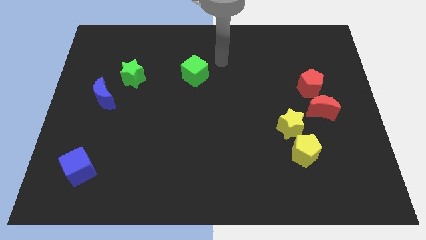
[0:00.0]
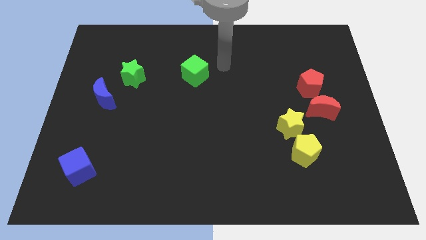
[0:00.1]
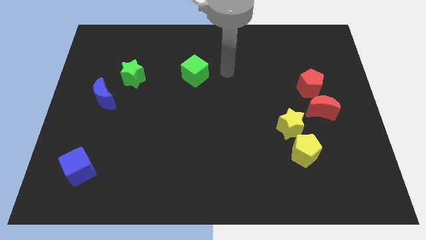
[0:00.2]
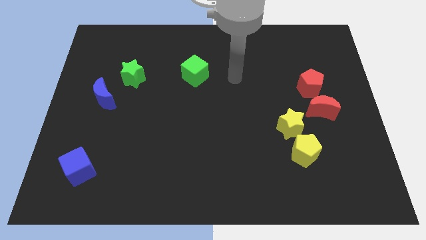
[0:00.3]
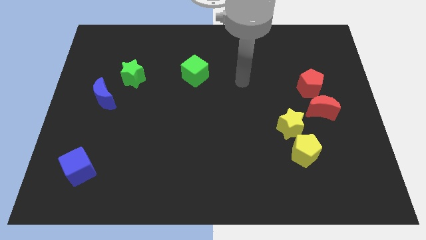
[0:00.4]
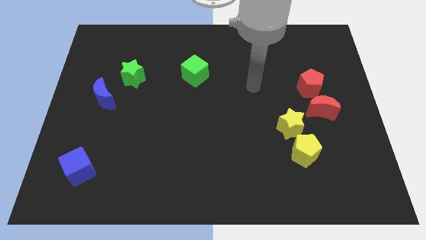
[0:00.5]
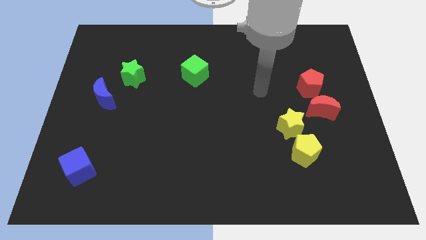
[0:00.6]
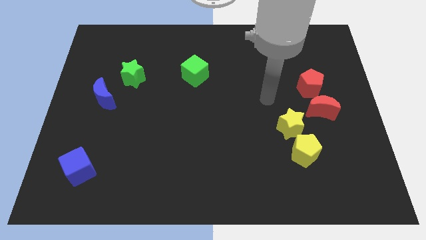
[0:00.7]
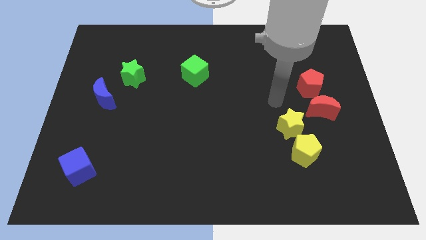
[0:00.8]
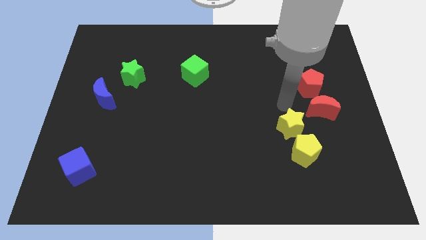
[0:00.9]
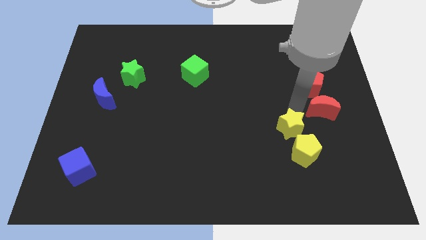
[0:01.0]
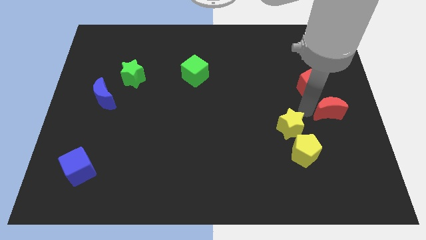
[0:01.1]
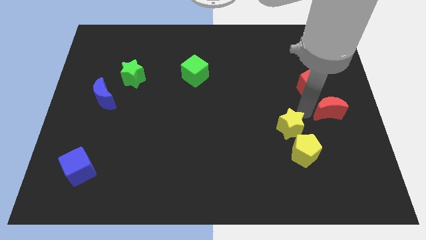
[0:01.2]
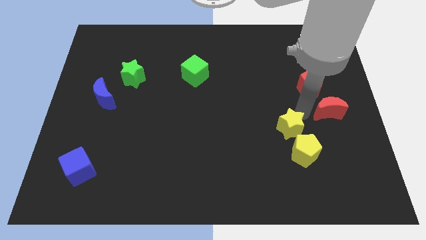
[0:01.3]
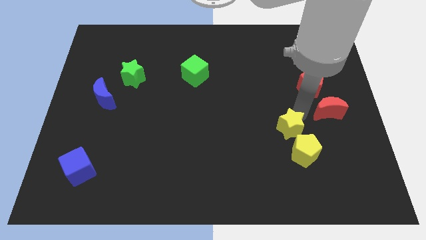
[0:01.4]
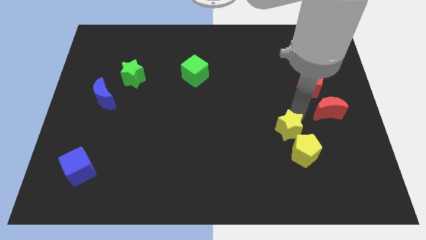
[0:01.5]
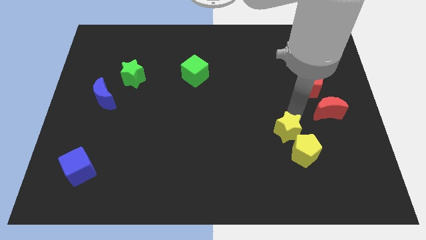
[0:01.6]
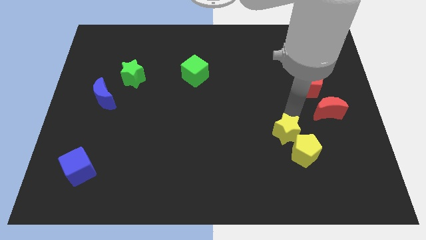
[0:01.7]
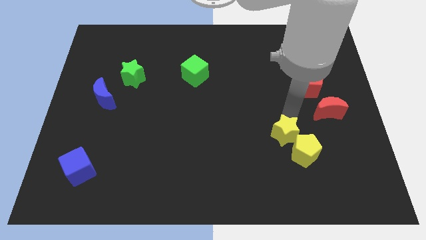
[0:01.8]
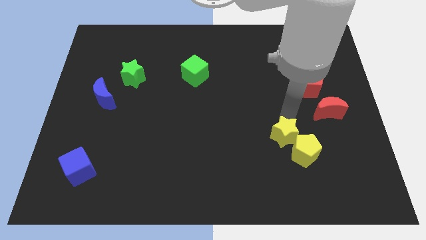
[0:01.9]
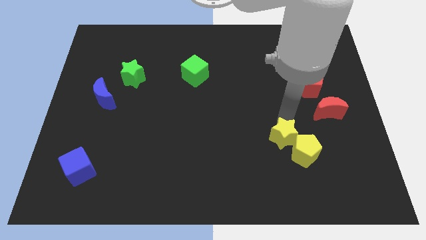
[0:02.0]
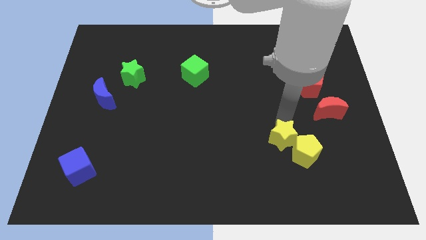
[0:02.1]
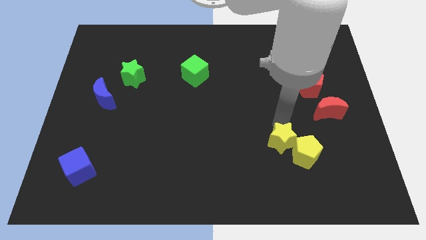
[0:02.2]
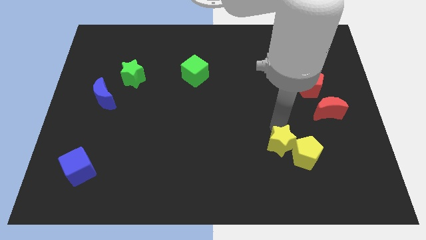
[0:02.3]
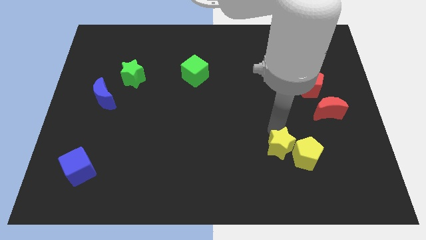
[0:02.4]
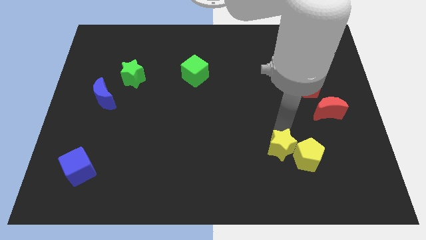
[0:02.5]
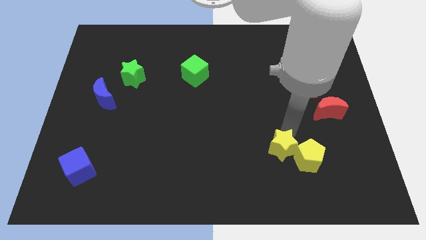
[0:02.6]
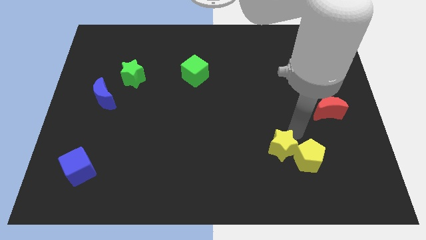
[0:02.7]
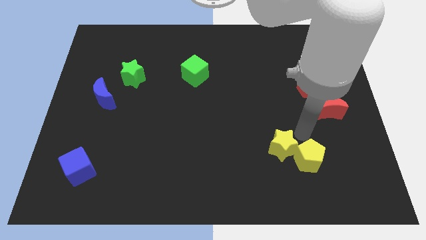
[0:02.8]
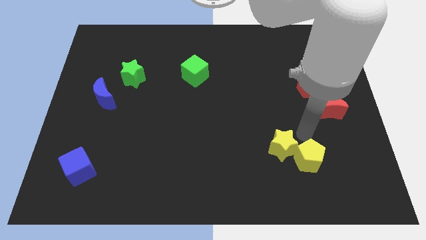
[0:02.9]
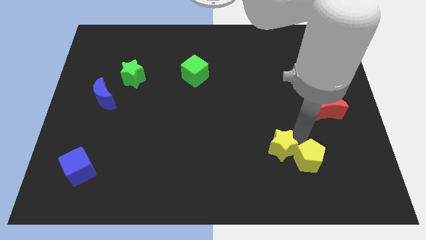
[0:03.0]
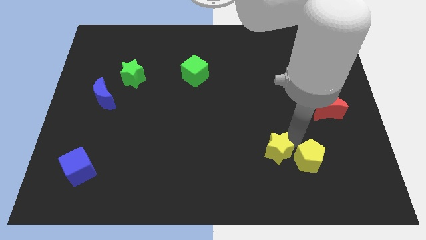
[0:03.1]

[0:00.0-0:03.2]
slide the yellow star down and left diagonally somewhat

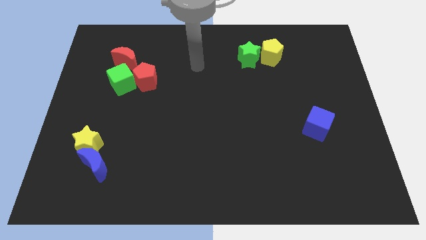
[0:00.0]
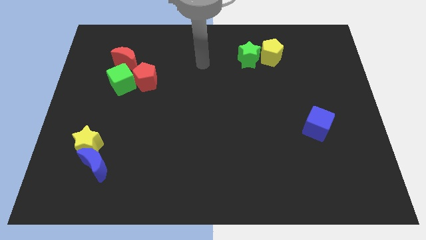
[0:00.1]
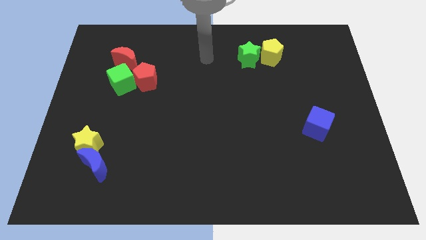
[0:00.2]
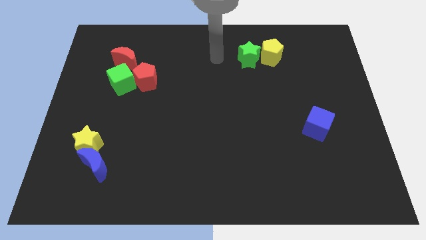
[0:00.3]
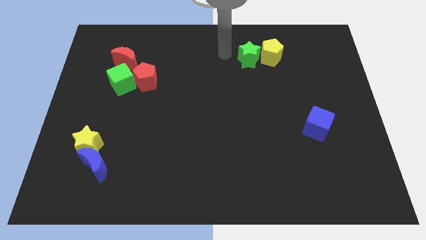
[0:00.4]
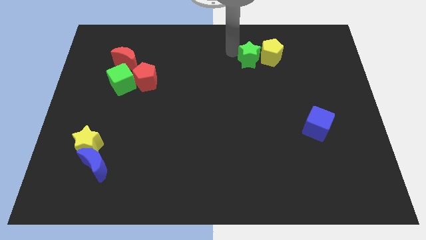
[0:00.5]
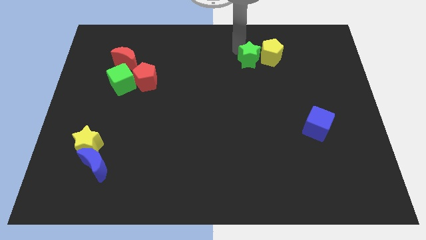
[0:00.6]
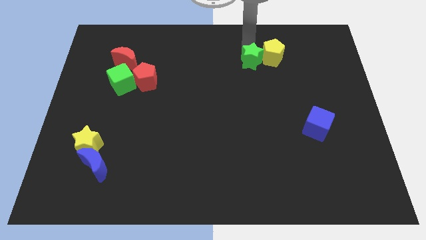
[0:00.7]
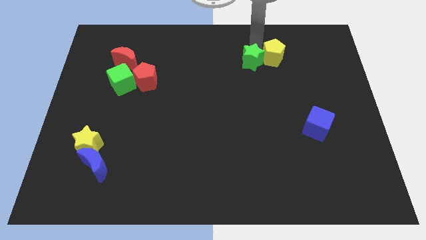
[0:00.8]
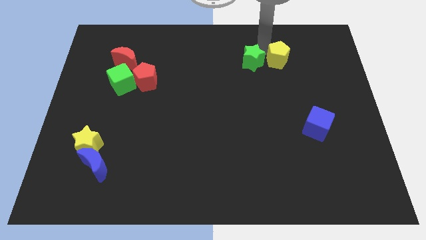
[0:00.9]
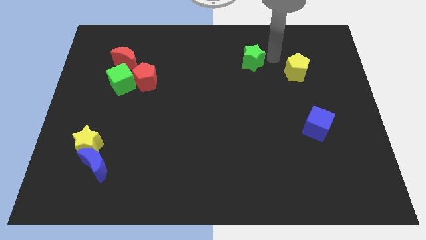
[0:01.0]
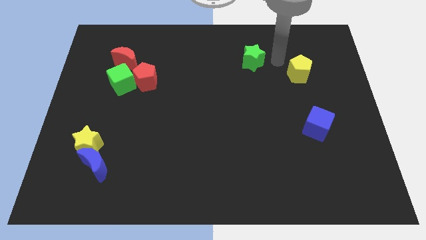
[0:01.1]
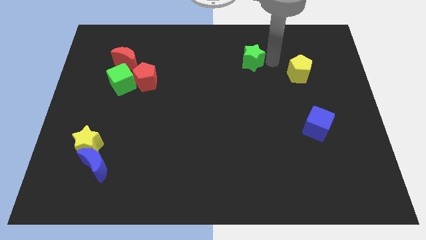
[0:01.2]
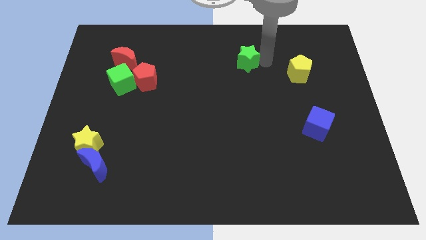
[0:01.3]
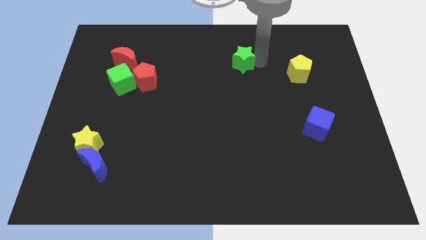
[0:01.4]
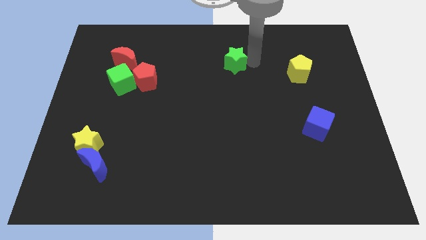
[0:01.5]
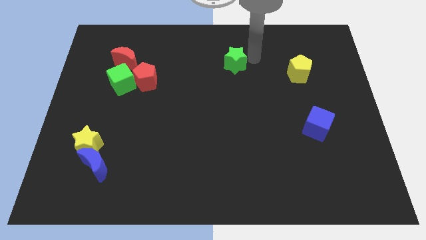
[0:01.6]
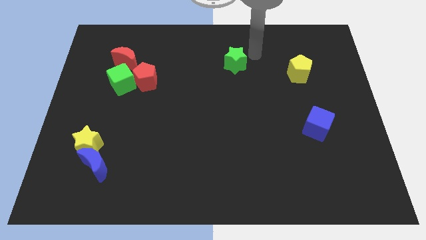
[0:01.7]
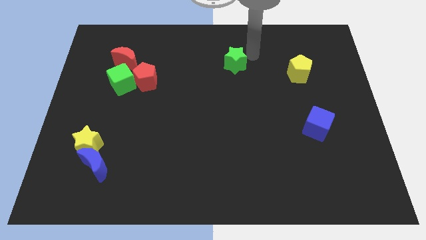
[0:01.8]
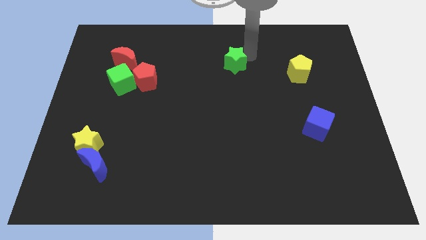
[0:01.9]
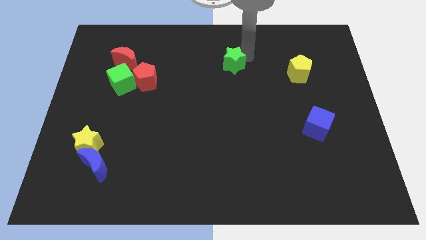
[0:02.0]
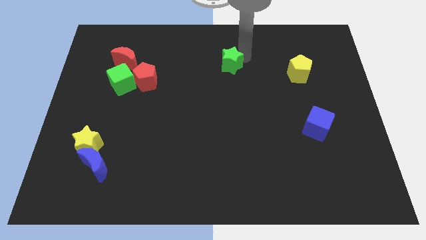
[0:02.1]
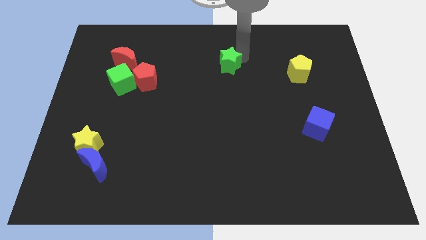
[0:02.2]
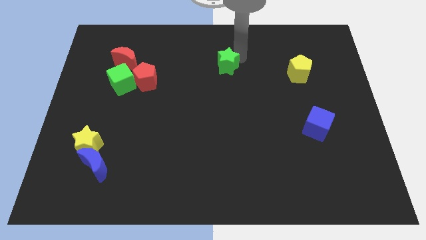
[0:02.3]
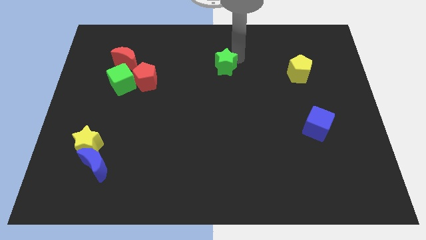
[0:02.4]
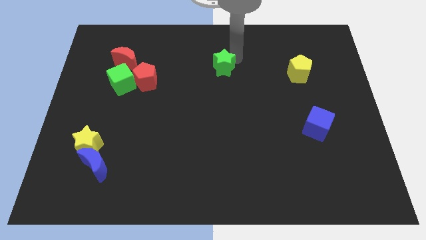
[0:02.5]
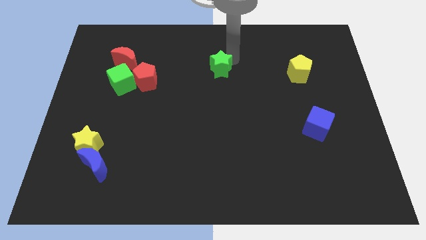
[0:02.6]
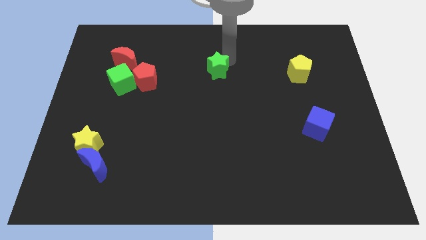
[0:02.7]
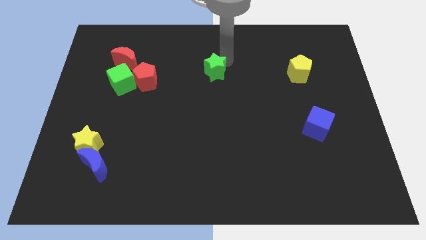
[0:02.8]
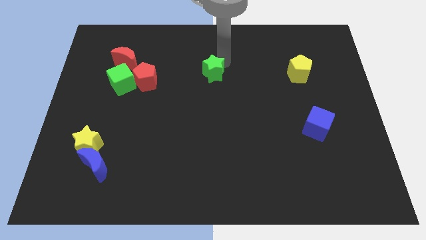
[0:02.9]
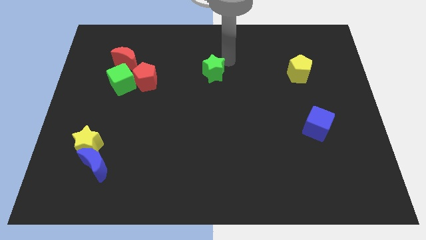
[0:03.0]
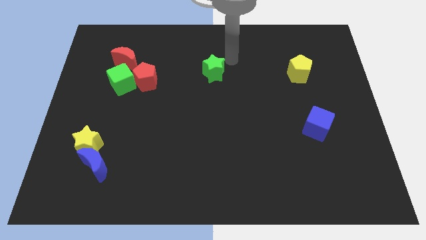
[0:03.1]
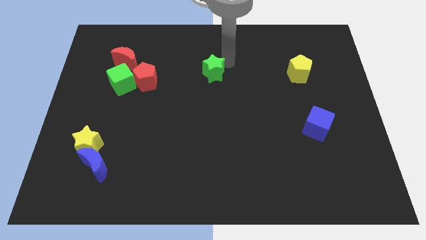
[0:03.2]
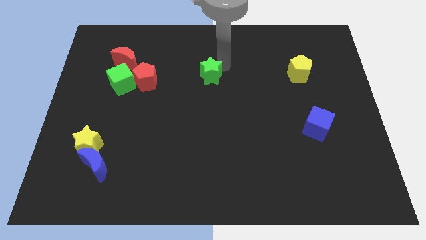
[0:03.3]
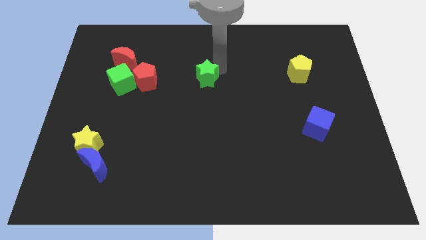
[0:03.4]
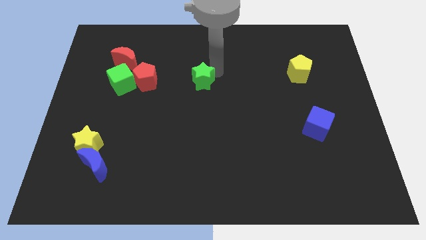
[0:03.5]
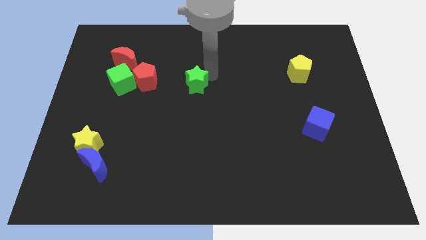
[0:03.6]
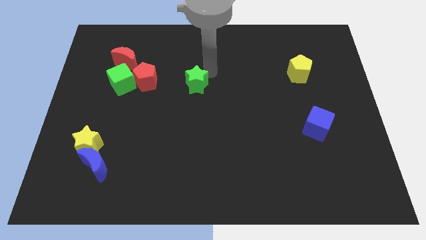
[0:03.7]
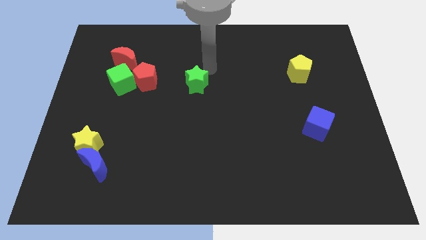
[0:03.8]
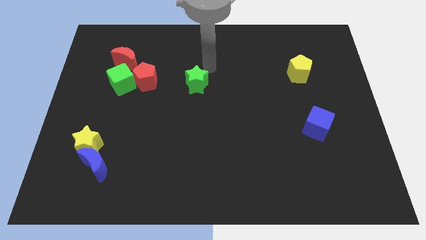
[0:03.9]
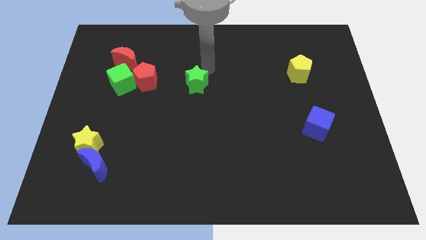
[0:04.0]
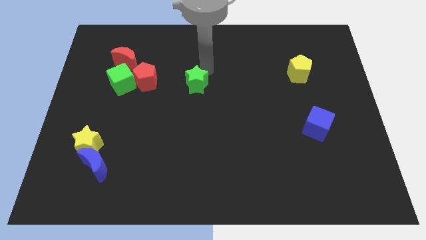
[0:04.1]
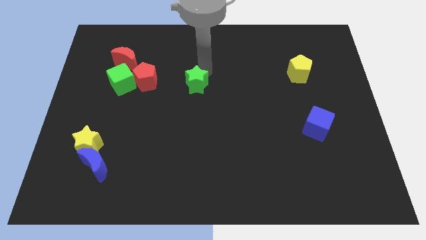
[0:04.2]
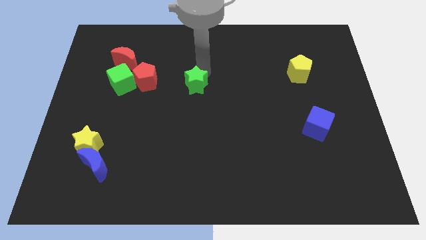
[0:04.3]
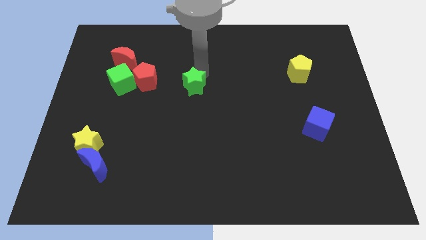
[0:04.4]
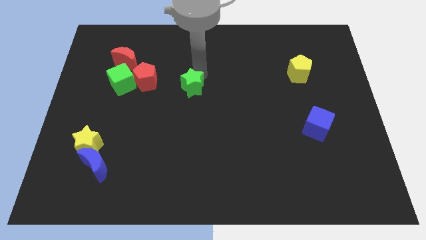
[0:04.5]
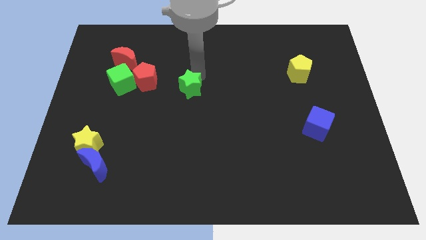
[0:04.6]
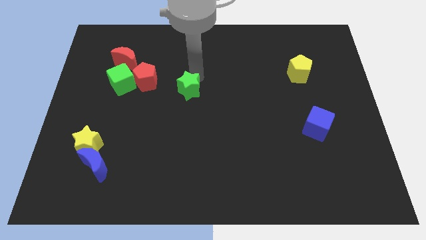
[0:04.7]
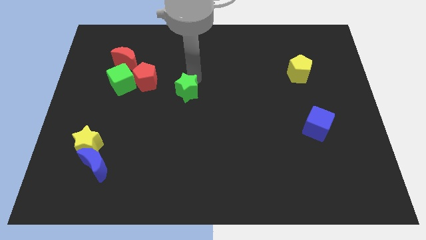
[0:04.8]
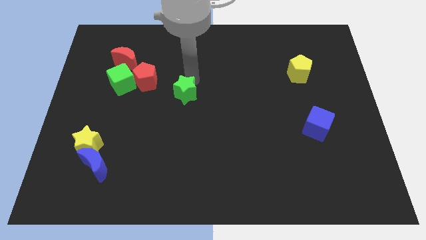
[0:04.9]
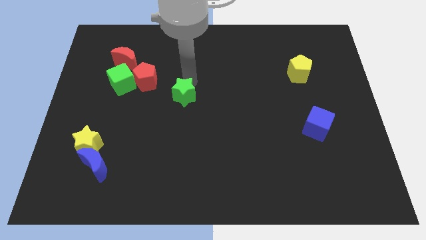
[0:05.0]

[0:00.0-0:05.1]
push the green star diagonally down and to the left
